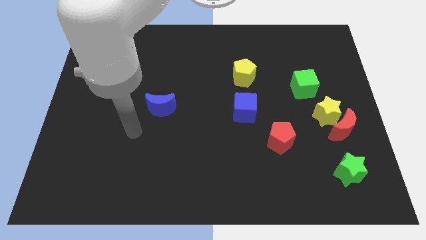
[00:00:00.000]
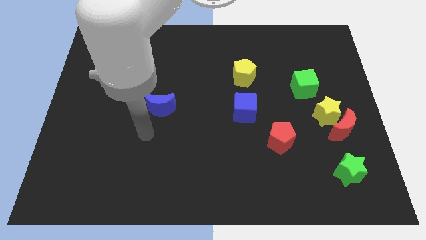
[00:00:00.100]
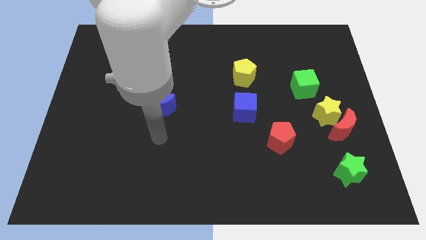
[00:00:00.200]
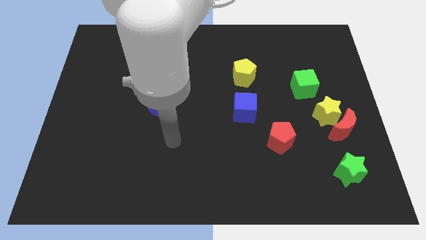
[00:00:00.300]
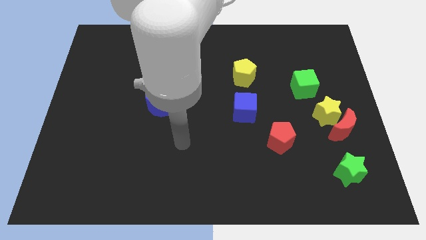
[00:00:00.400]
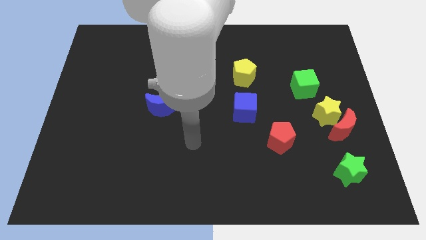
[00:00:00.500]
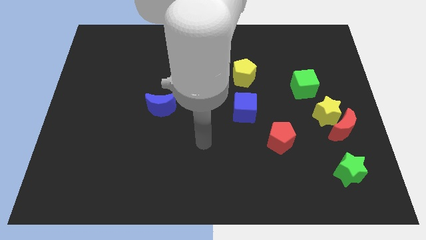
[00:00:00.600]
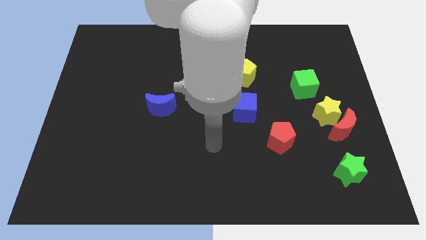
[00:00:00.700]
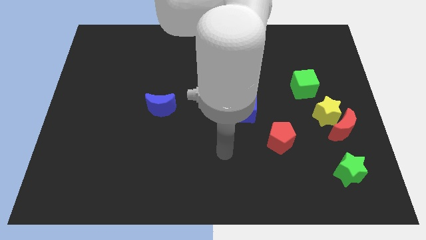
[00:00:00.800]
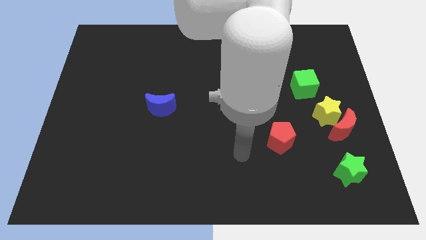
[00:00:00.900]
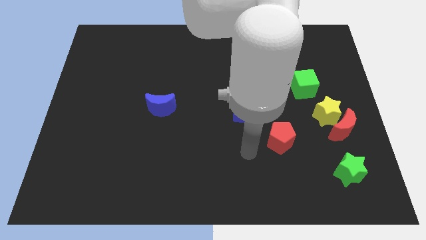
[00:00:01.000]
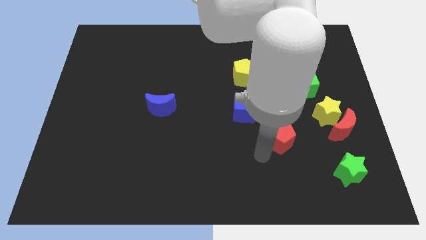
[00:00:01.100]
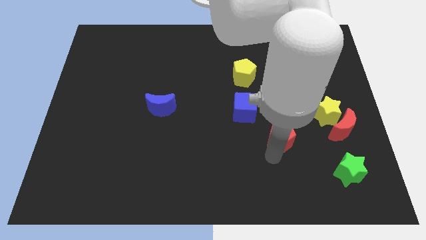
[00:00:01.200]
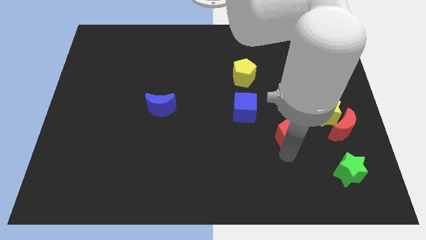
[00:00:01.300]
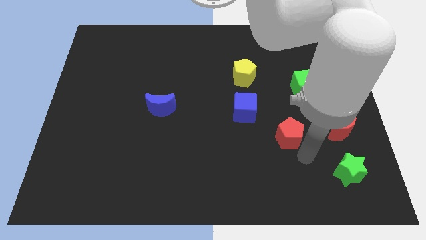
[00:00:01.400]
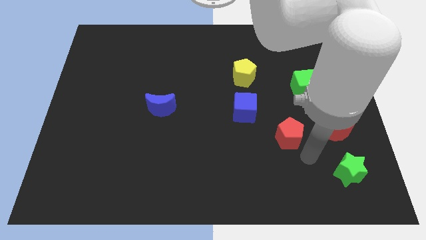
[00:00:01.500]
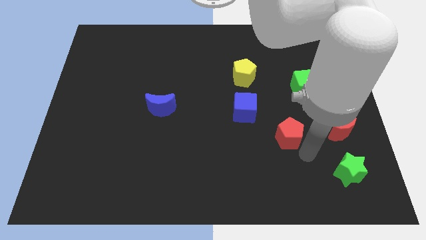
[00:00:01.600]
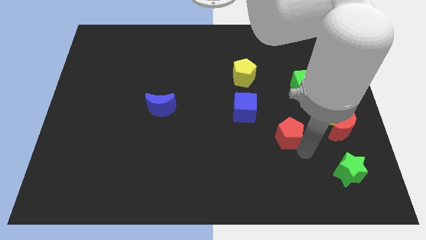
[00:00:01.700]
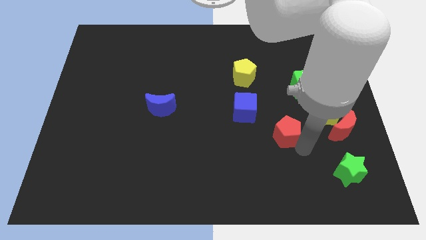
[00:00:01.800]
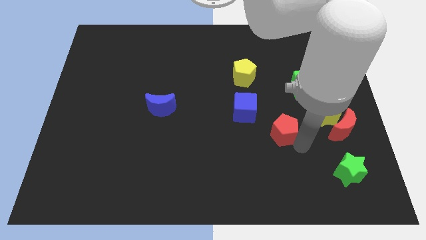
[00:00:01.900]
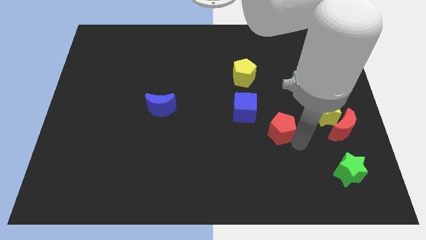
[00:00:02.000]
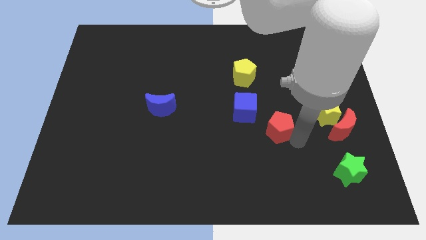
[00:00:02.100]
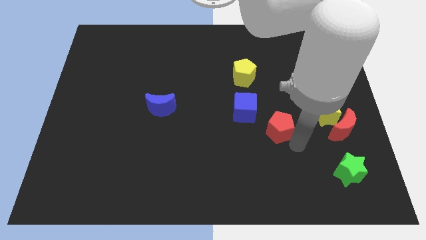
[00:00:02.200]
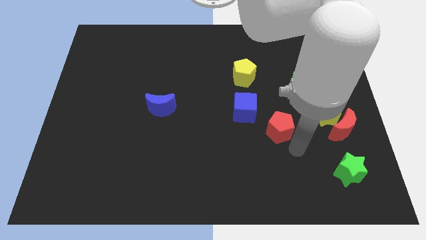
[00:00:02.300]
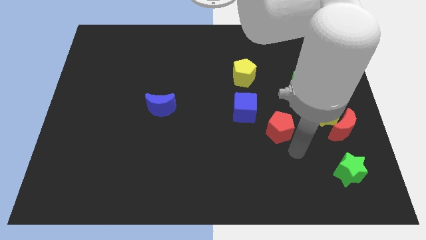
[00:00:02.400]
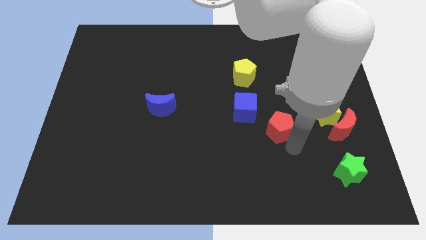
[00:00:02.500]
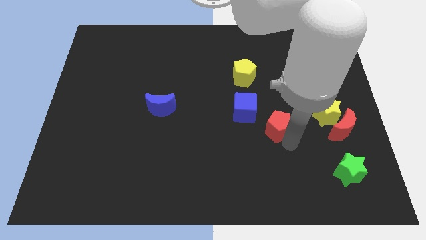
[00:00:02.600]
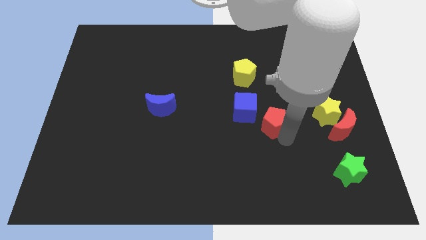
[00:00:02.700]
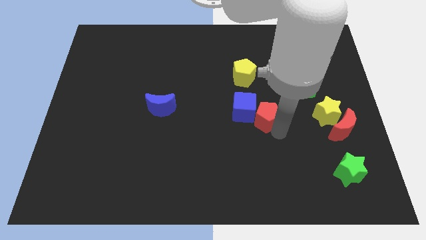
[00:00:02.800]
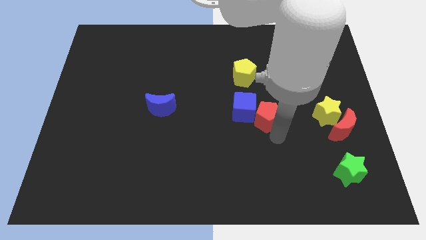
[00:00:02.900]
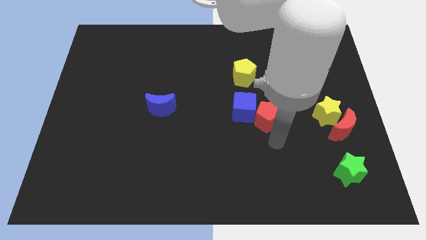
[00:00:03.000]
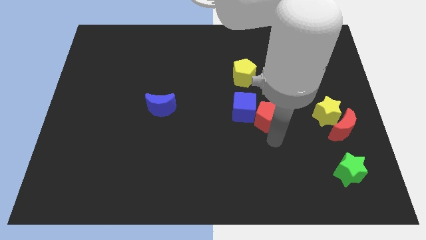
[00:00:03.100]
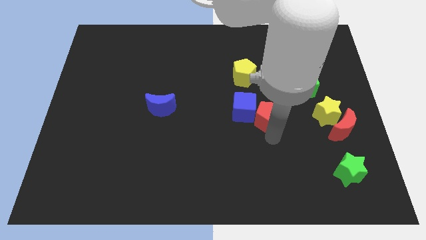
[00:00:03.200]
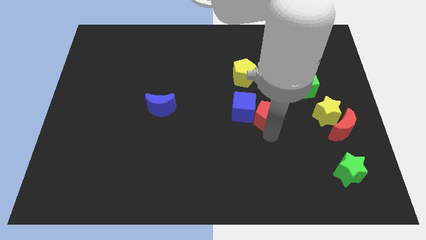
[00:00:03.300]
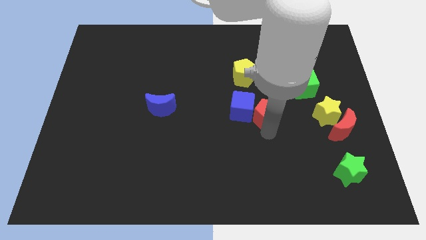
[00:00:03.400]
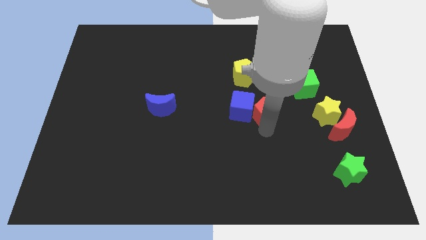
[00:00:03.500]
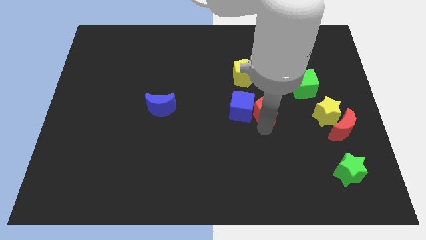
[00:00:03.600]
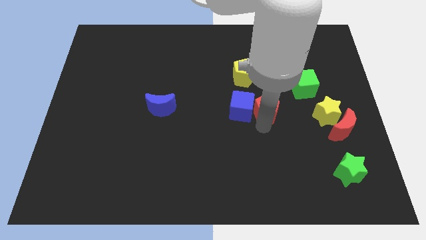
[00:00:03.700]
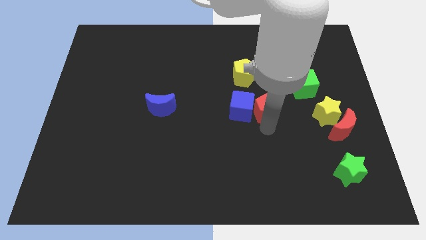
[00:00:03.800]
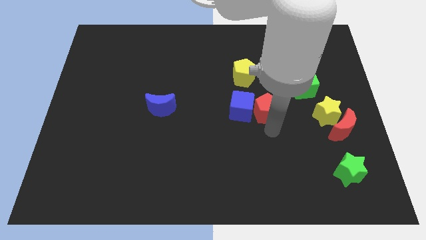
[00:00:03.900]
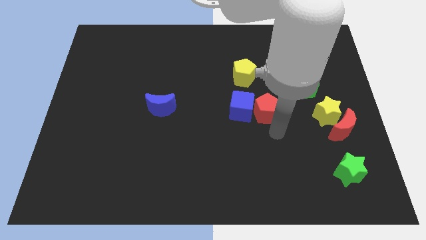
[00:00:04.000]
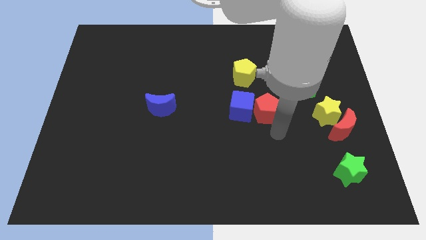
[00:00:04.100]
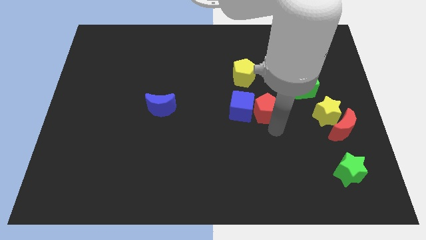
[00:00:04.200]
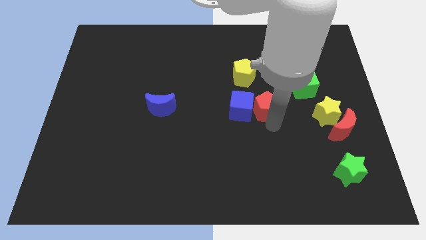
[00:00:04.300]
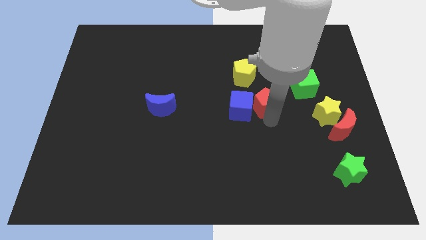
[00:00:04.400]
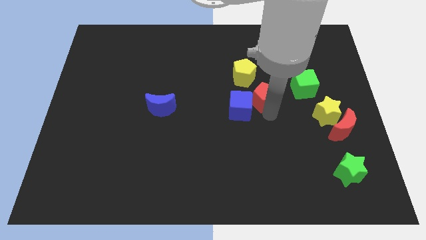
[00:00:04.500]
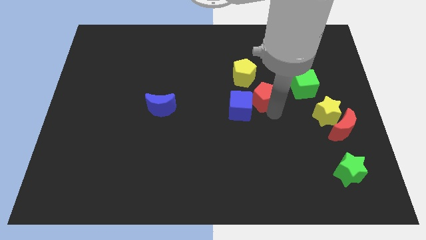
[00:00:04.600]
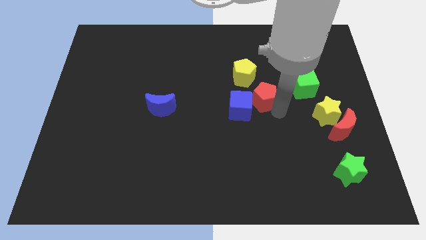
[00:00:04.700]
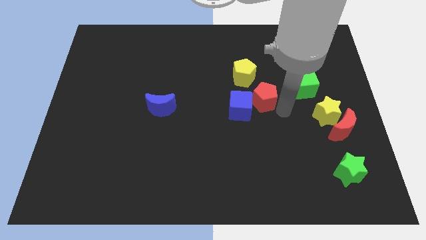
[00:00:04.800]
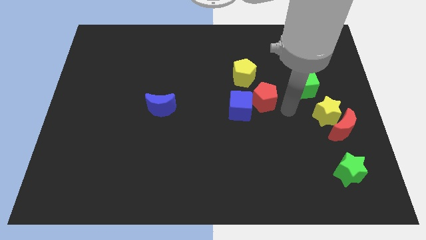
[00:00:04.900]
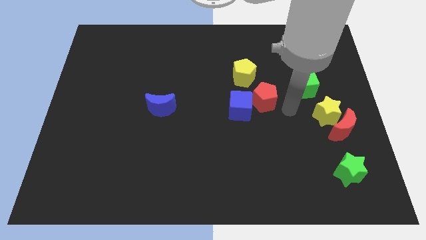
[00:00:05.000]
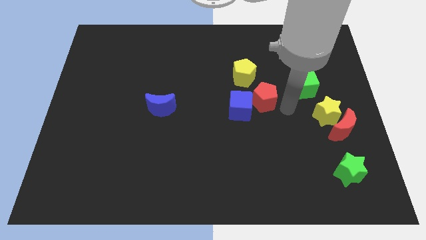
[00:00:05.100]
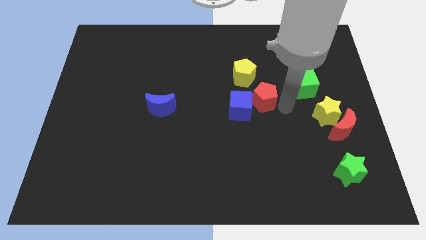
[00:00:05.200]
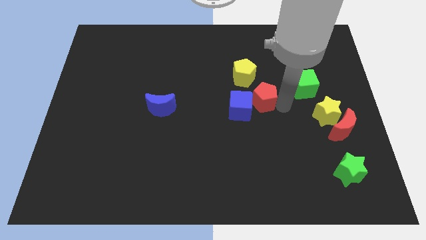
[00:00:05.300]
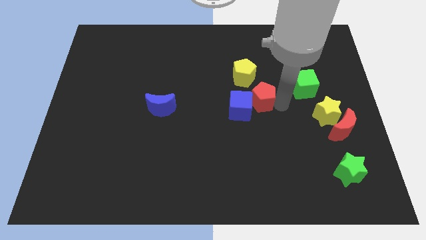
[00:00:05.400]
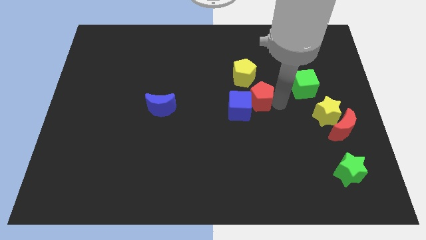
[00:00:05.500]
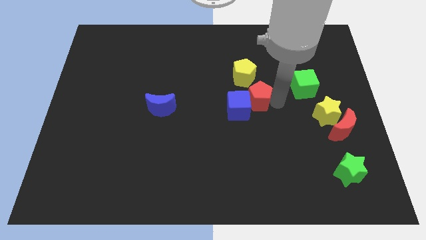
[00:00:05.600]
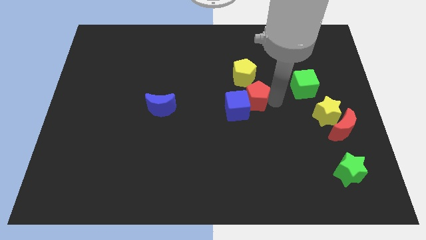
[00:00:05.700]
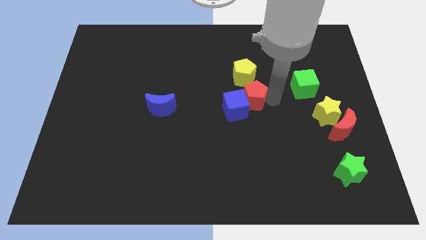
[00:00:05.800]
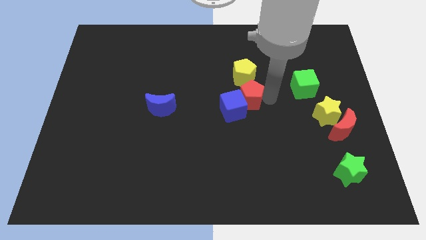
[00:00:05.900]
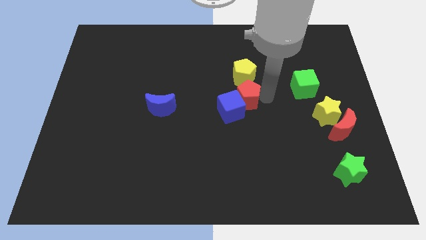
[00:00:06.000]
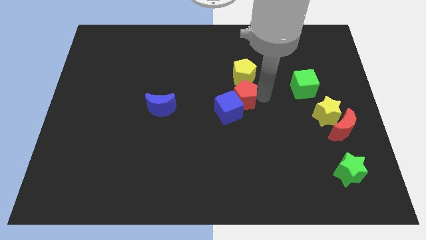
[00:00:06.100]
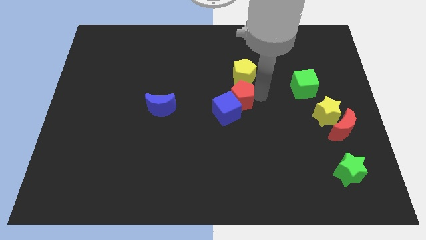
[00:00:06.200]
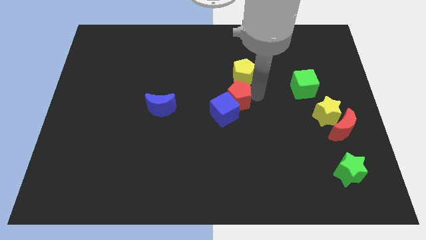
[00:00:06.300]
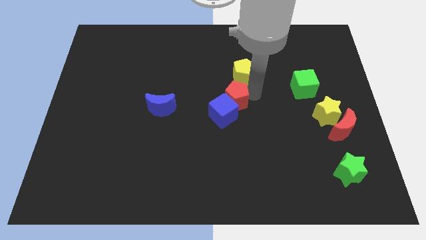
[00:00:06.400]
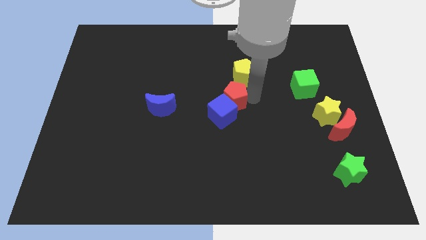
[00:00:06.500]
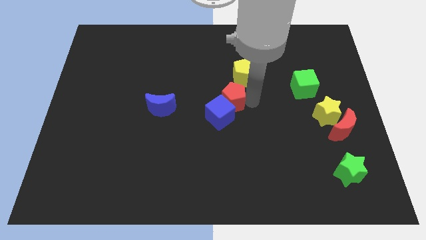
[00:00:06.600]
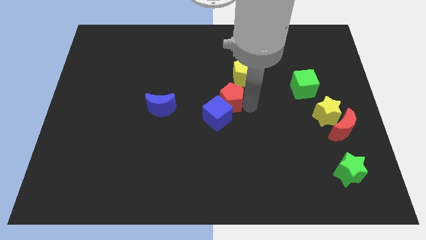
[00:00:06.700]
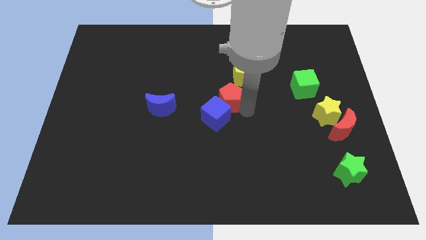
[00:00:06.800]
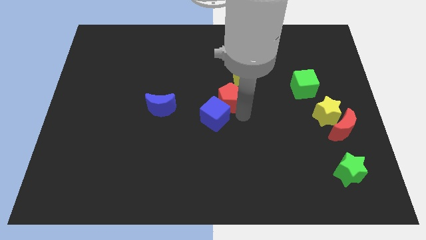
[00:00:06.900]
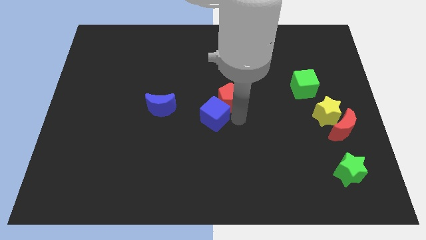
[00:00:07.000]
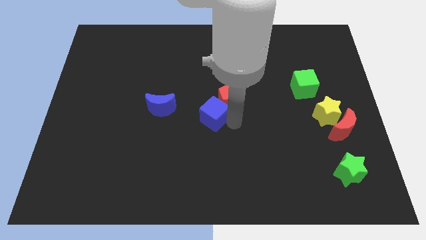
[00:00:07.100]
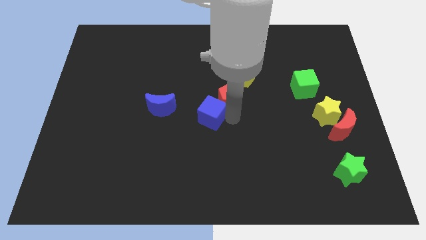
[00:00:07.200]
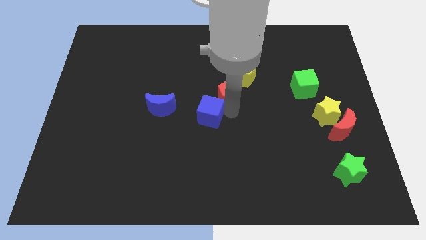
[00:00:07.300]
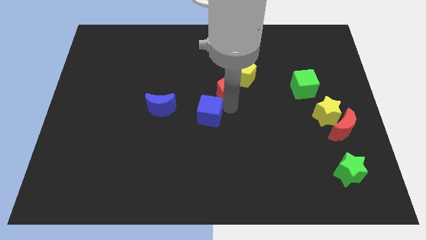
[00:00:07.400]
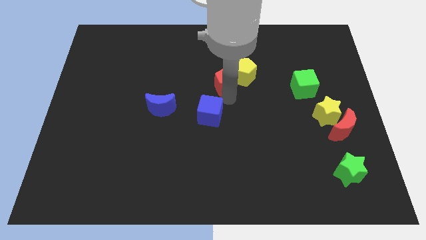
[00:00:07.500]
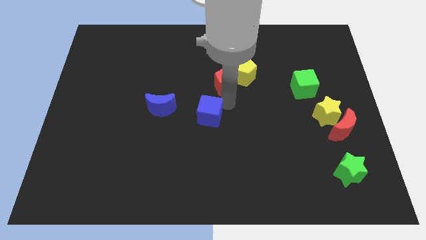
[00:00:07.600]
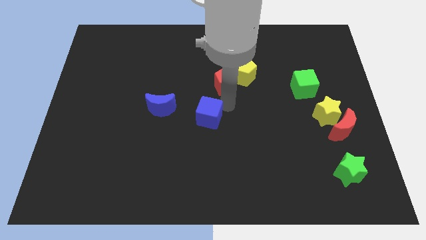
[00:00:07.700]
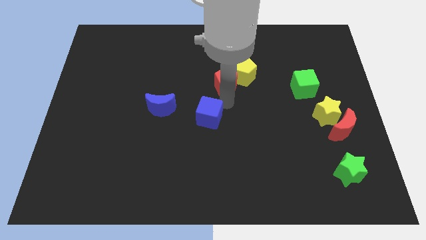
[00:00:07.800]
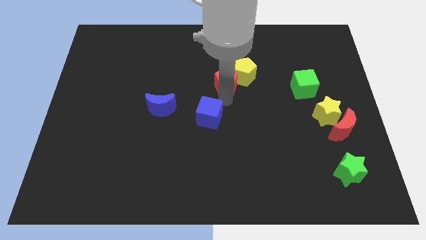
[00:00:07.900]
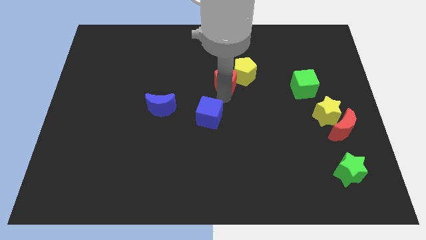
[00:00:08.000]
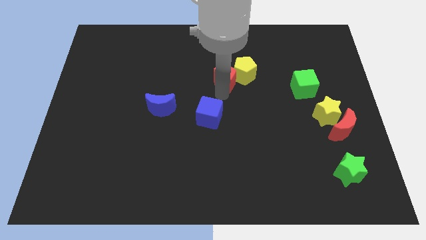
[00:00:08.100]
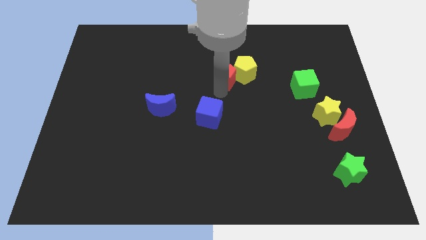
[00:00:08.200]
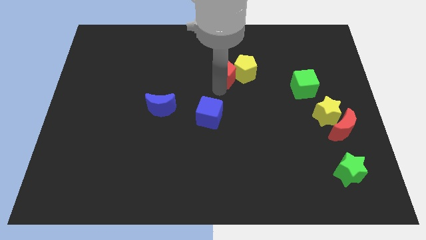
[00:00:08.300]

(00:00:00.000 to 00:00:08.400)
slide the red pentagon diagonally up and to the left of the yellow pentagon
